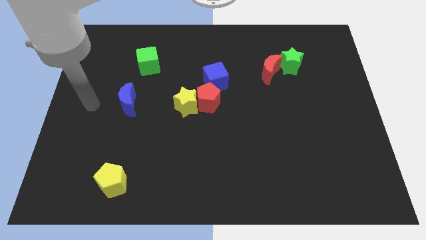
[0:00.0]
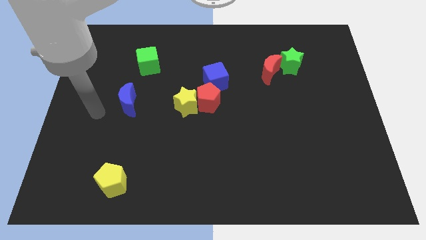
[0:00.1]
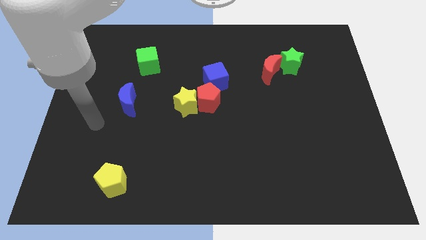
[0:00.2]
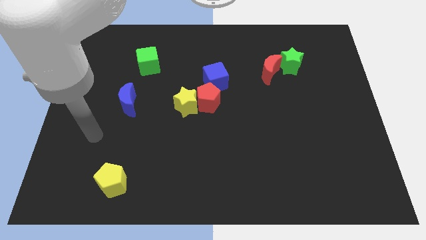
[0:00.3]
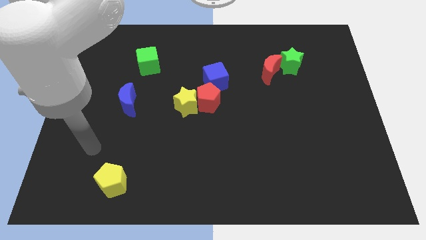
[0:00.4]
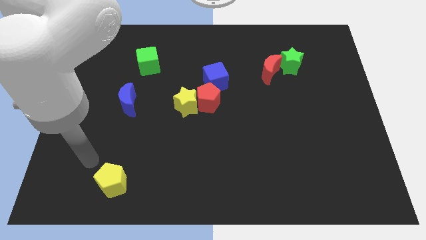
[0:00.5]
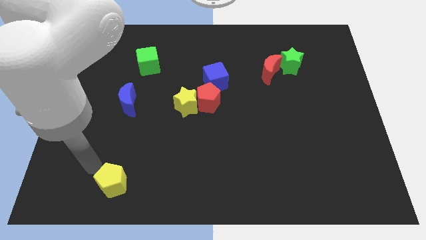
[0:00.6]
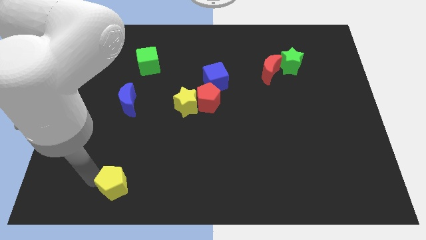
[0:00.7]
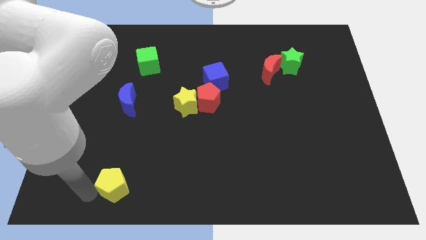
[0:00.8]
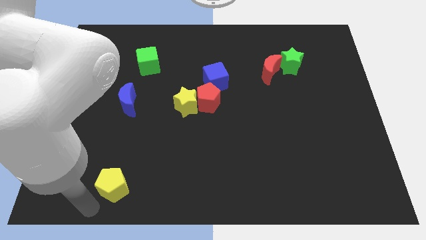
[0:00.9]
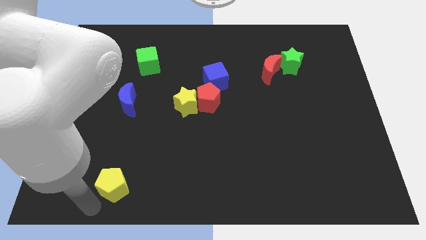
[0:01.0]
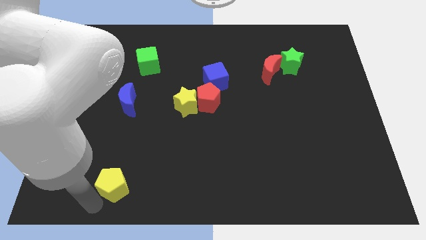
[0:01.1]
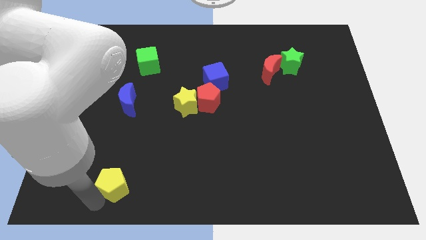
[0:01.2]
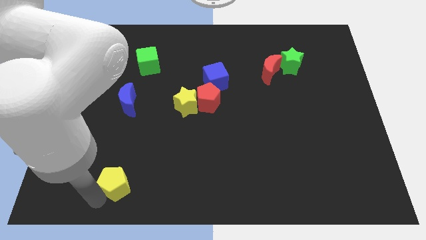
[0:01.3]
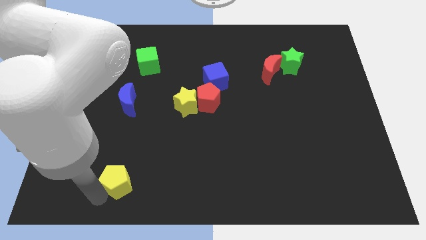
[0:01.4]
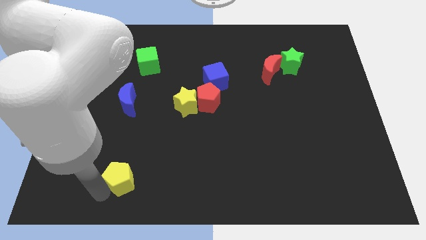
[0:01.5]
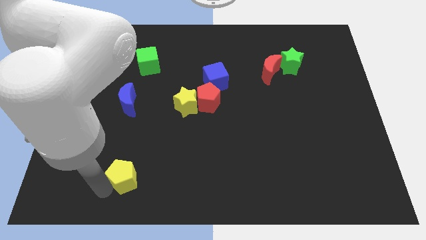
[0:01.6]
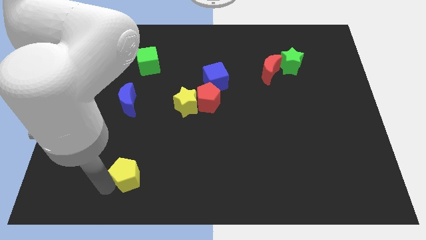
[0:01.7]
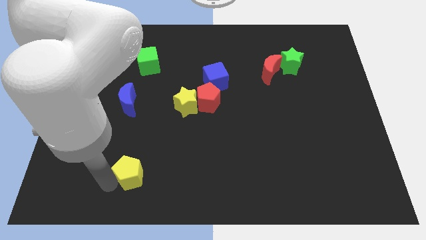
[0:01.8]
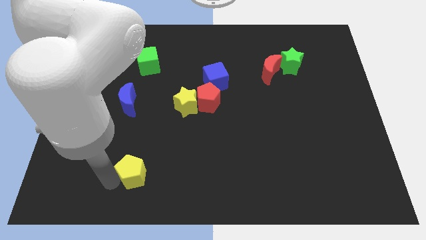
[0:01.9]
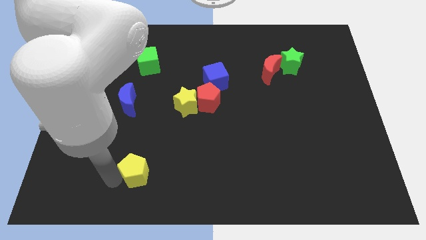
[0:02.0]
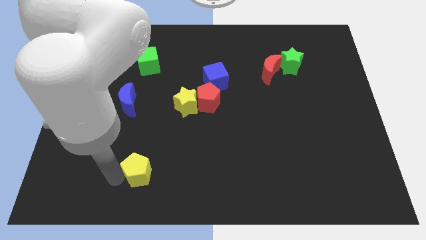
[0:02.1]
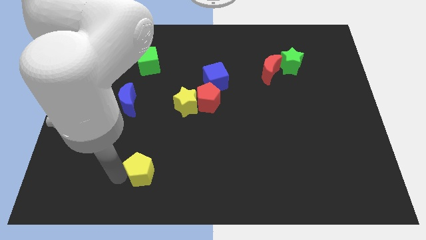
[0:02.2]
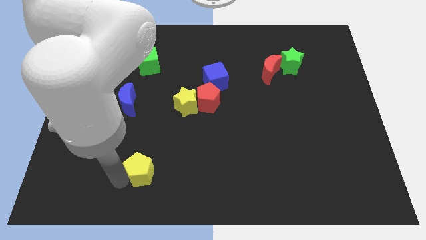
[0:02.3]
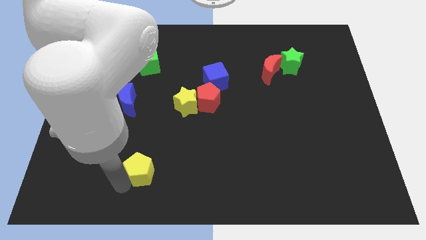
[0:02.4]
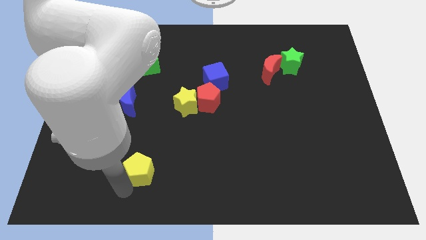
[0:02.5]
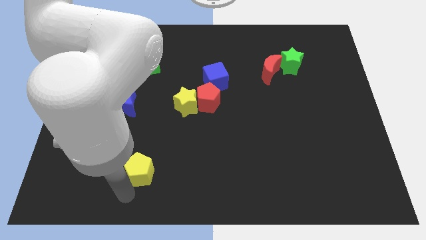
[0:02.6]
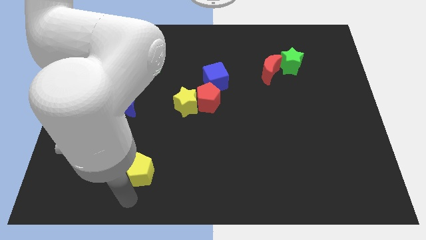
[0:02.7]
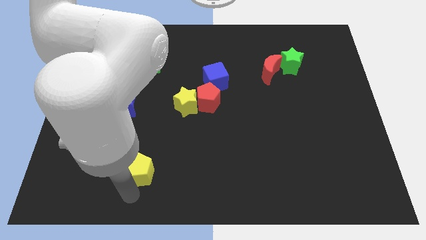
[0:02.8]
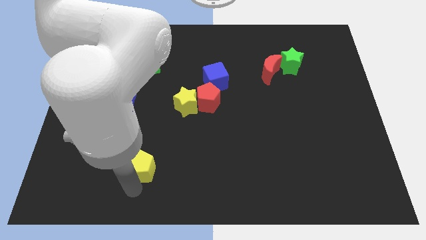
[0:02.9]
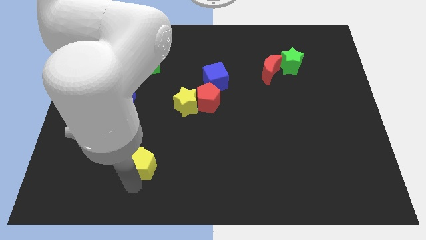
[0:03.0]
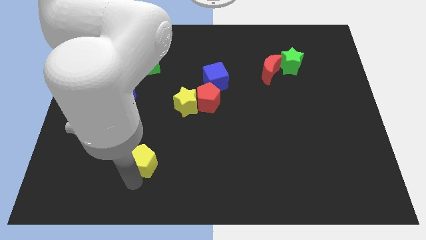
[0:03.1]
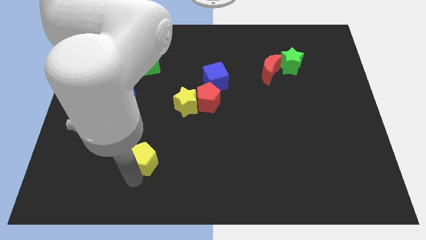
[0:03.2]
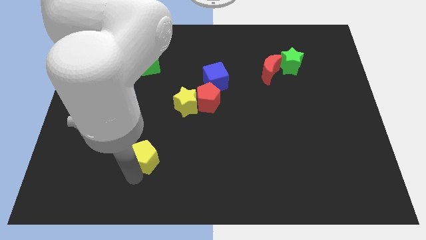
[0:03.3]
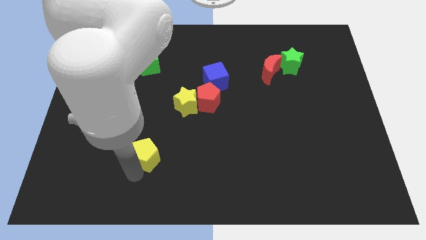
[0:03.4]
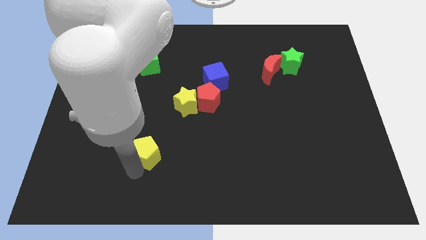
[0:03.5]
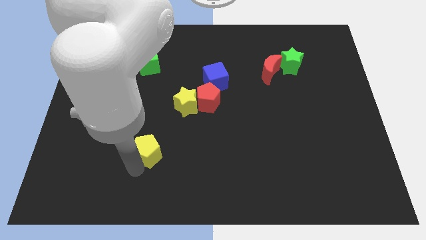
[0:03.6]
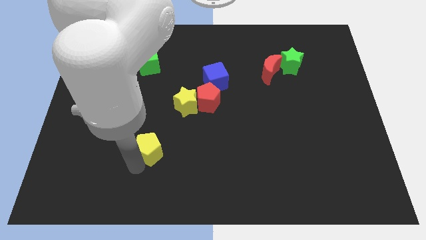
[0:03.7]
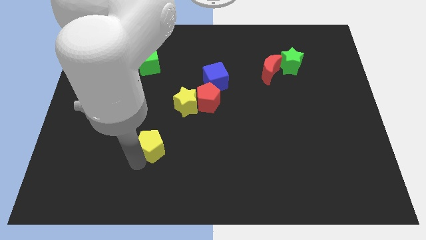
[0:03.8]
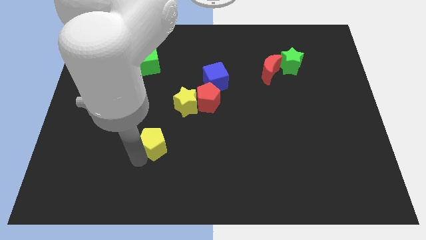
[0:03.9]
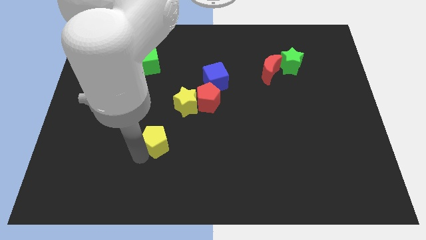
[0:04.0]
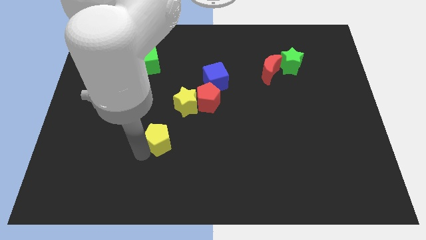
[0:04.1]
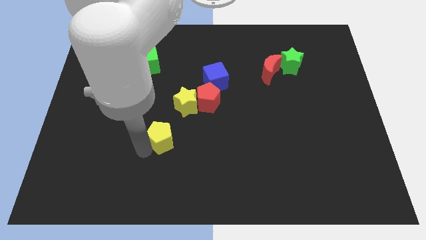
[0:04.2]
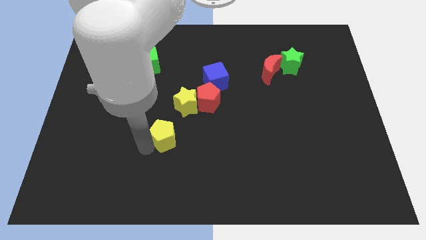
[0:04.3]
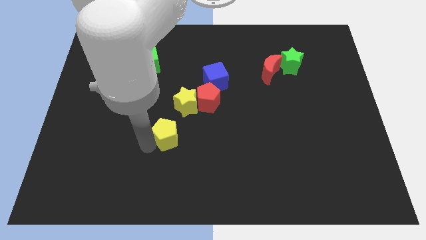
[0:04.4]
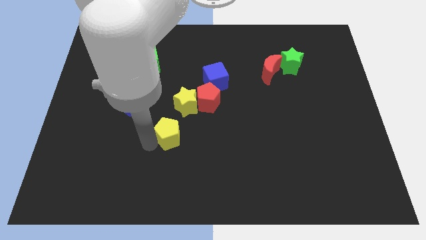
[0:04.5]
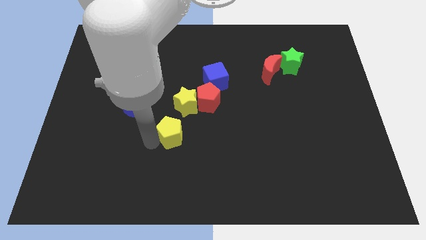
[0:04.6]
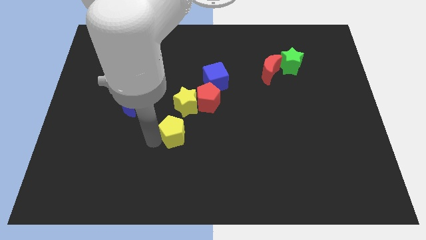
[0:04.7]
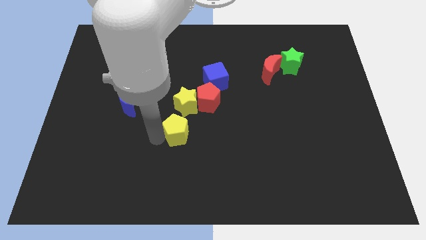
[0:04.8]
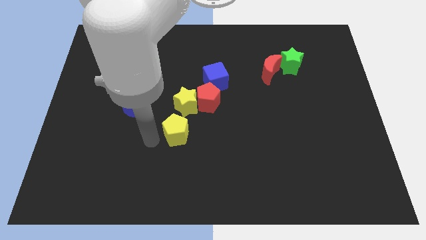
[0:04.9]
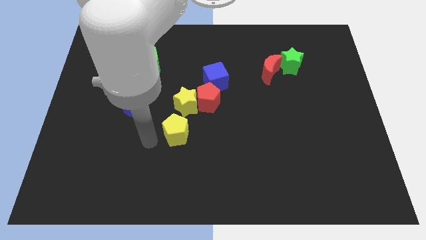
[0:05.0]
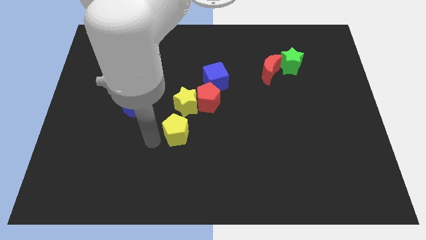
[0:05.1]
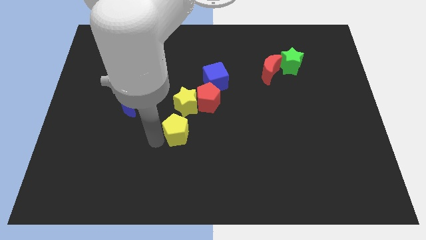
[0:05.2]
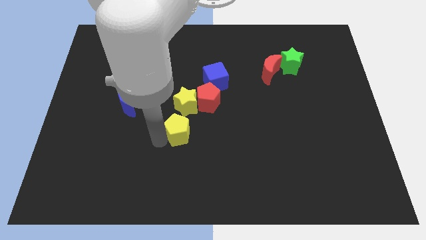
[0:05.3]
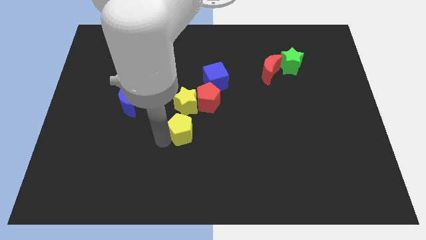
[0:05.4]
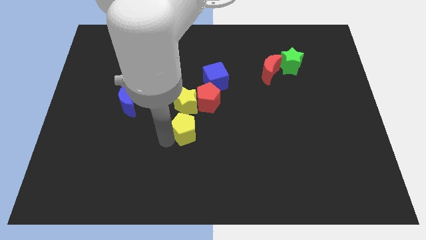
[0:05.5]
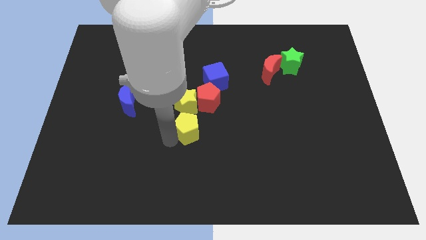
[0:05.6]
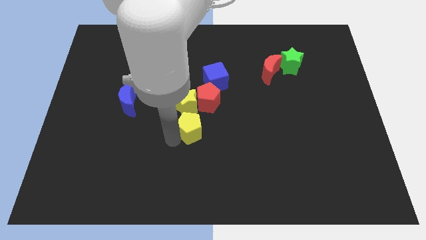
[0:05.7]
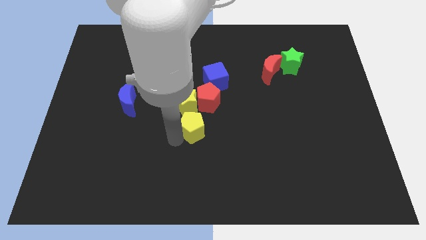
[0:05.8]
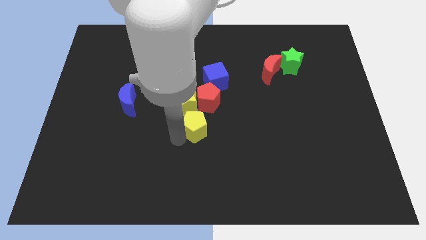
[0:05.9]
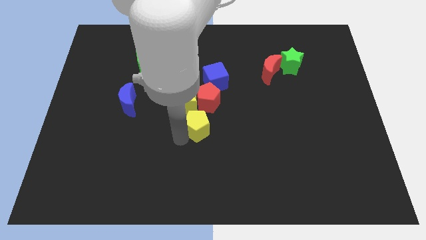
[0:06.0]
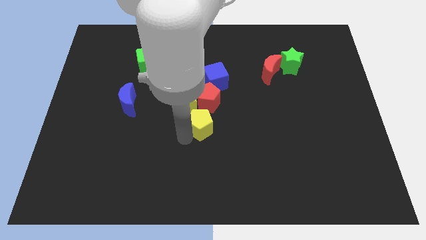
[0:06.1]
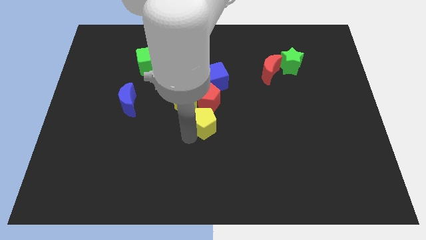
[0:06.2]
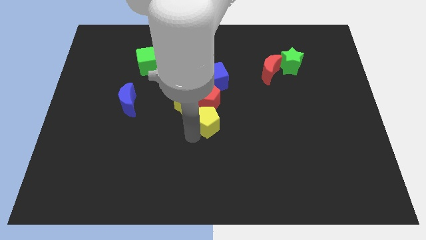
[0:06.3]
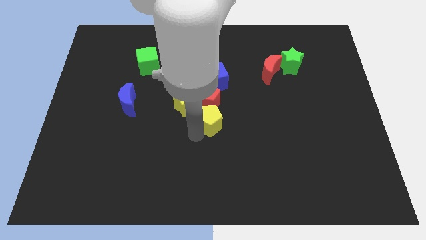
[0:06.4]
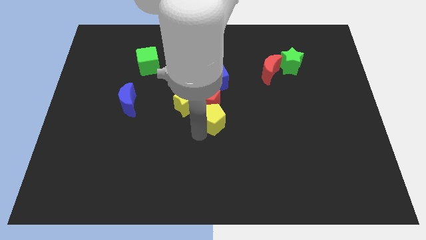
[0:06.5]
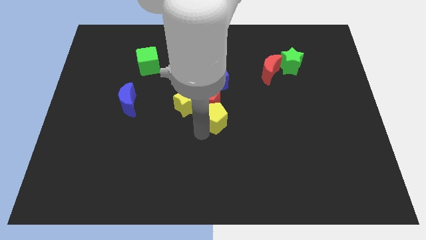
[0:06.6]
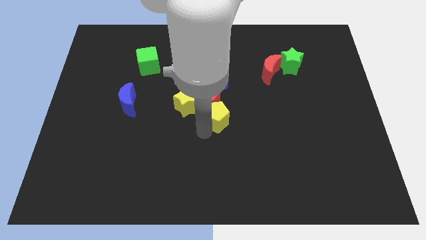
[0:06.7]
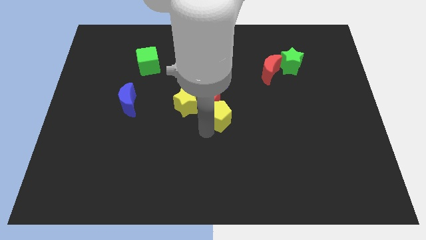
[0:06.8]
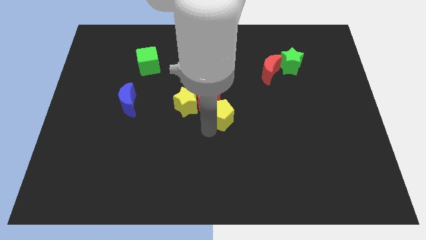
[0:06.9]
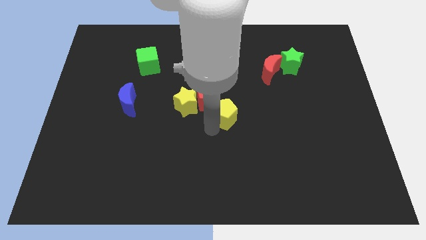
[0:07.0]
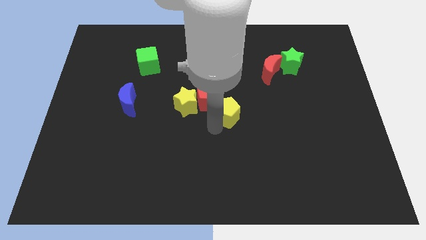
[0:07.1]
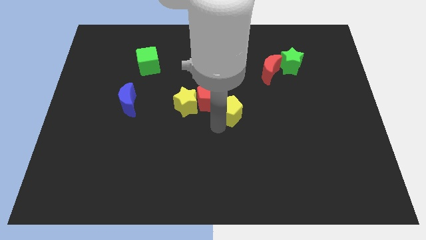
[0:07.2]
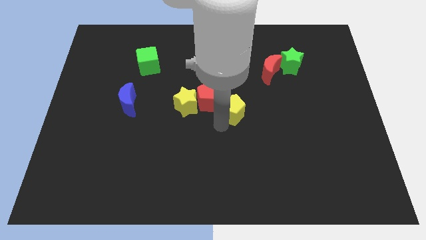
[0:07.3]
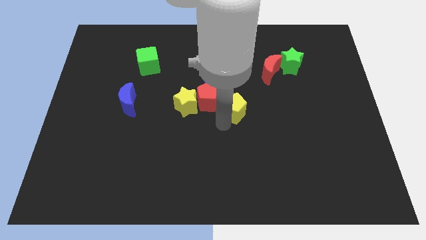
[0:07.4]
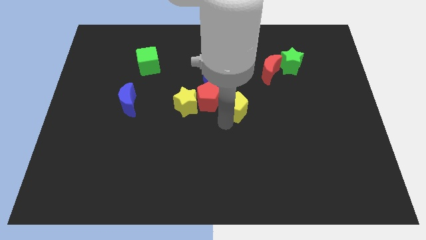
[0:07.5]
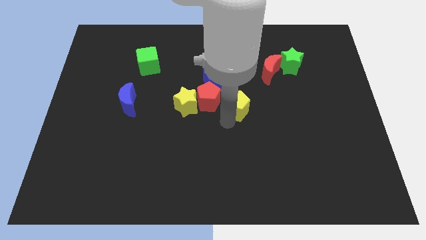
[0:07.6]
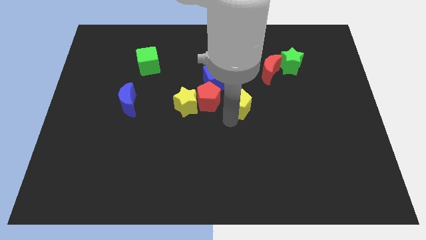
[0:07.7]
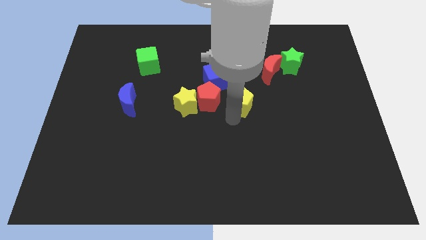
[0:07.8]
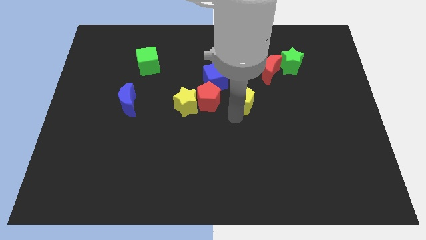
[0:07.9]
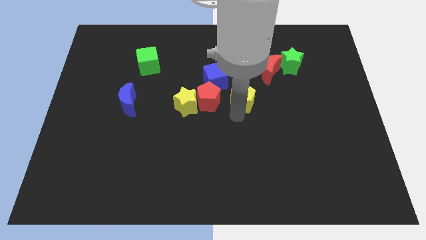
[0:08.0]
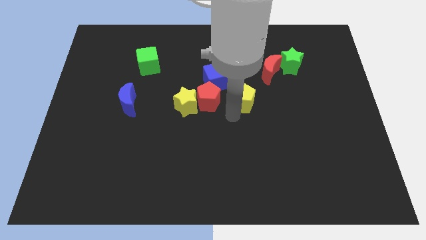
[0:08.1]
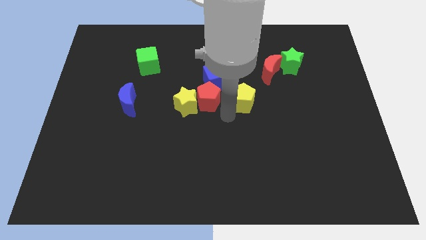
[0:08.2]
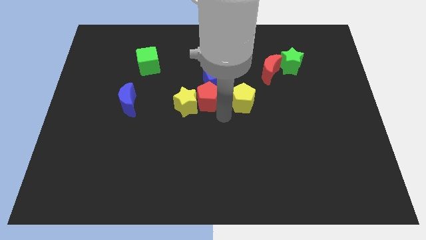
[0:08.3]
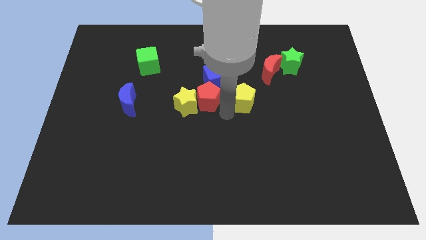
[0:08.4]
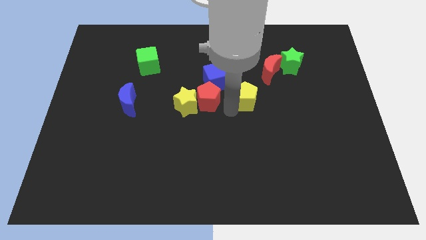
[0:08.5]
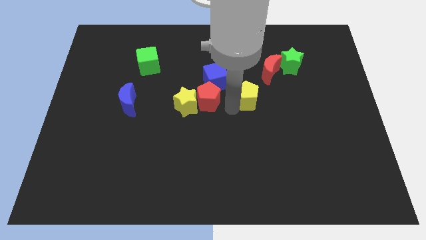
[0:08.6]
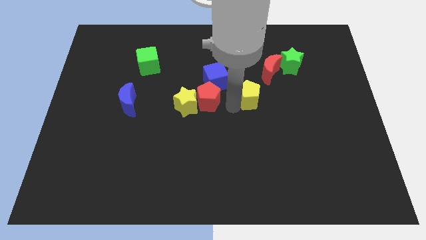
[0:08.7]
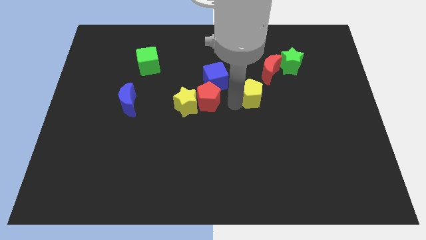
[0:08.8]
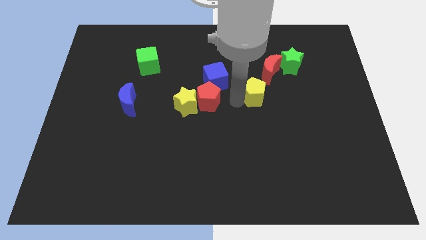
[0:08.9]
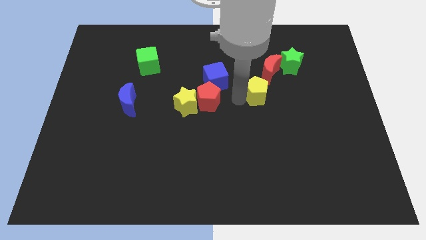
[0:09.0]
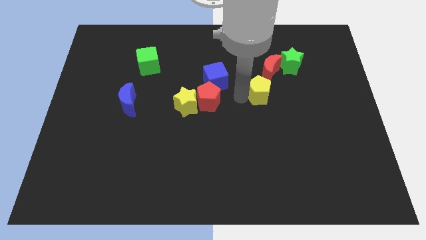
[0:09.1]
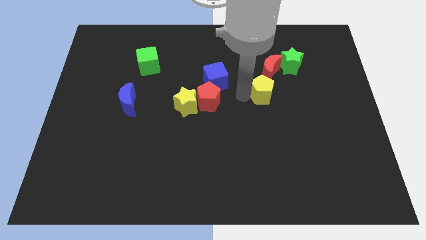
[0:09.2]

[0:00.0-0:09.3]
slide the yellow pentagon to the bottom left of the green star
